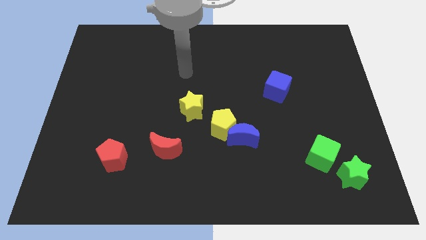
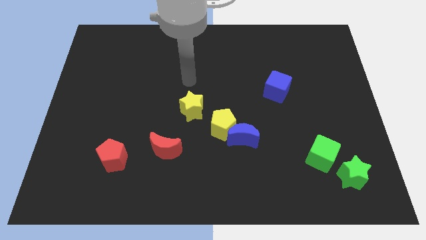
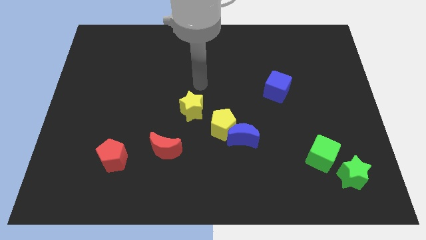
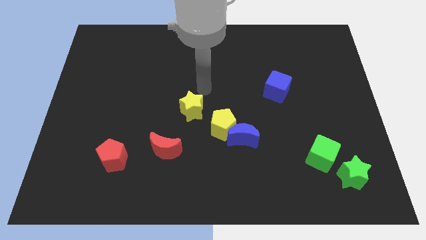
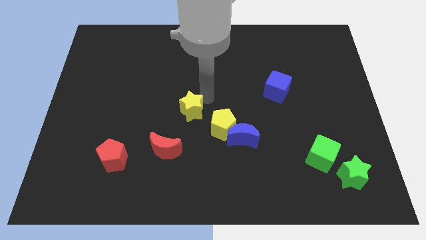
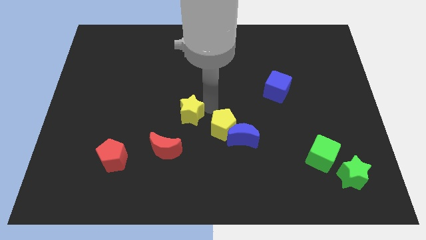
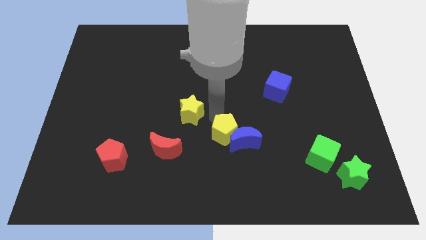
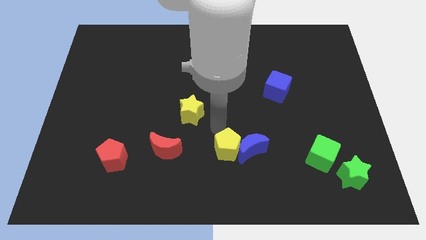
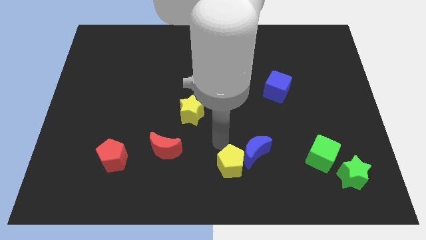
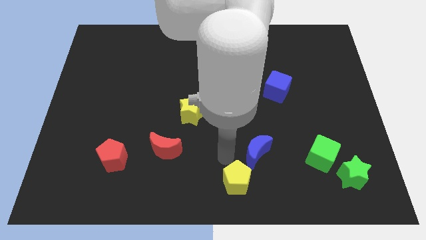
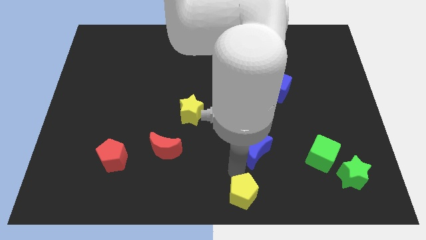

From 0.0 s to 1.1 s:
separate the blue moon from the yellow pentagon

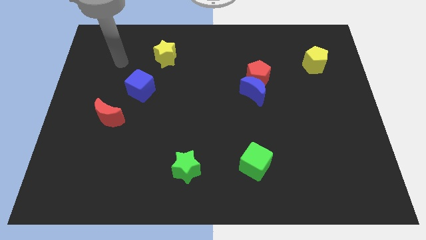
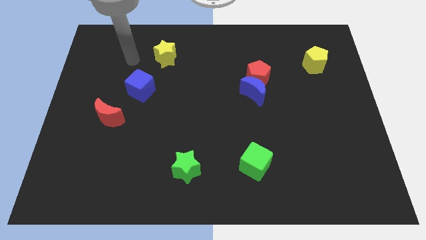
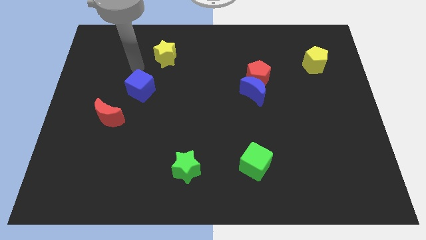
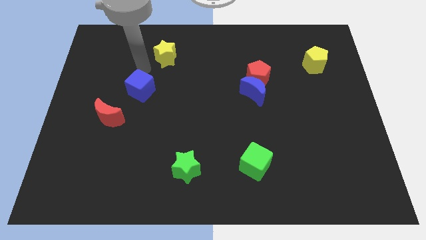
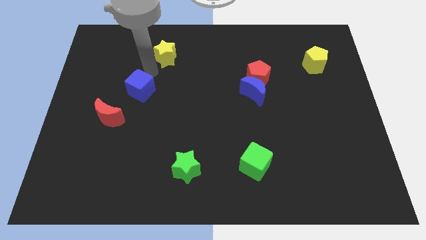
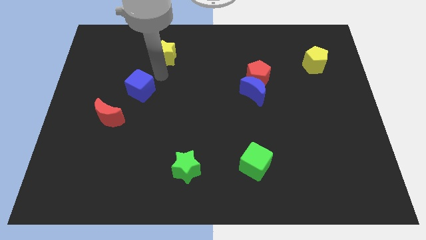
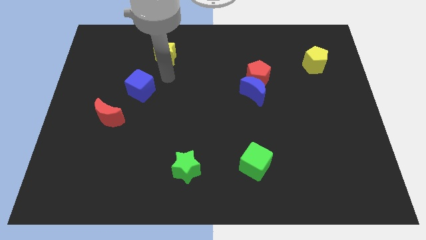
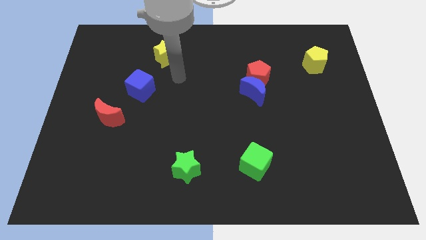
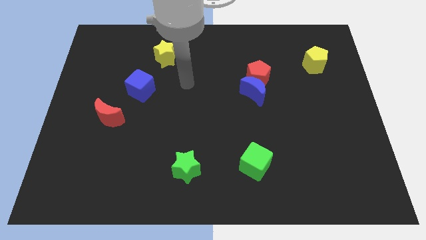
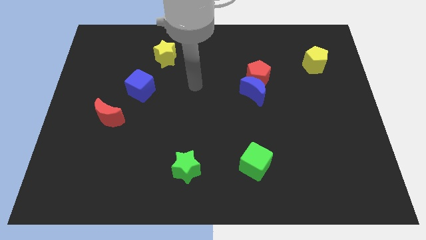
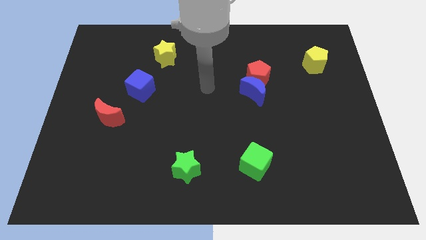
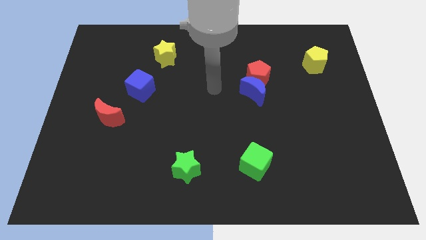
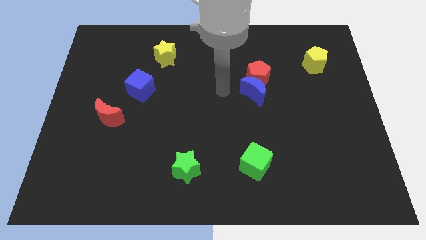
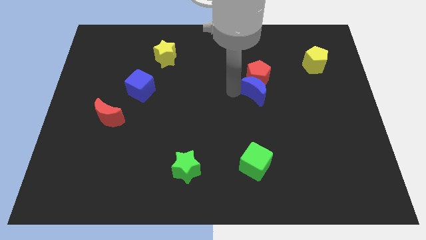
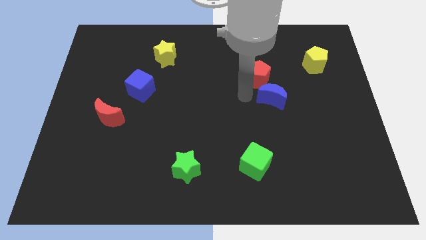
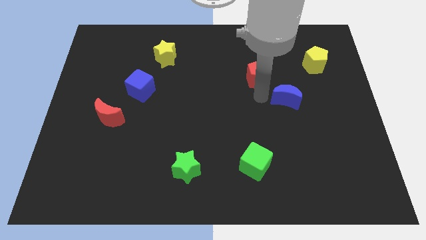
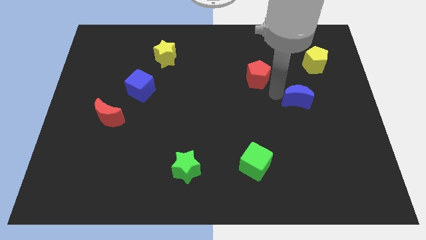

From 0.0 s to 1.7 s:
separate the red pentagon from the blue moon

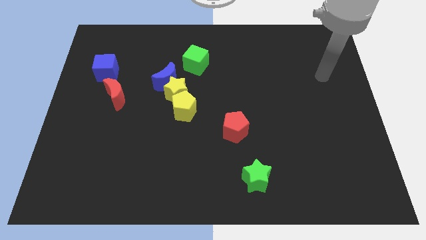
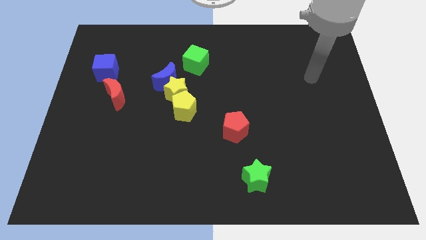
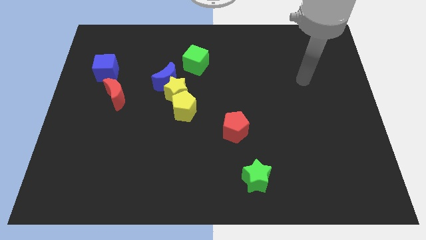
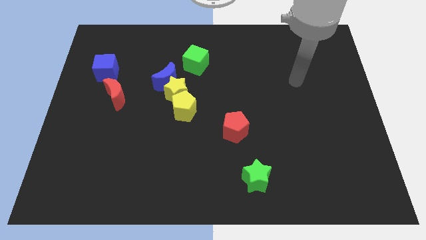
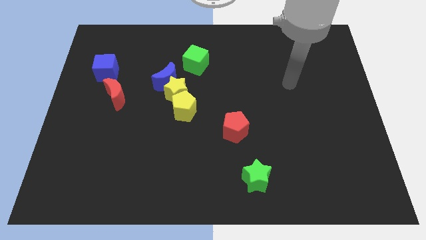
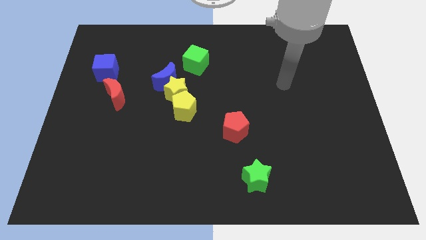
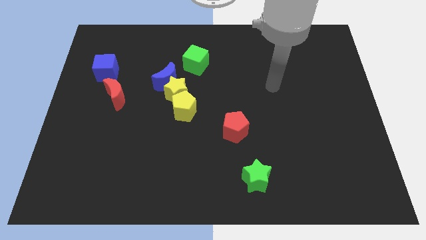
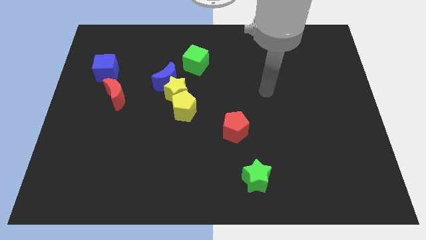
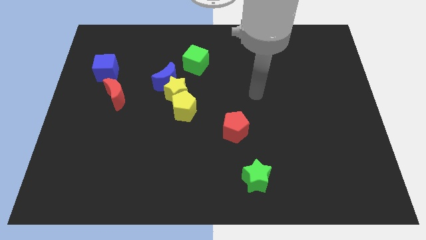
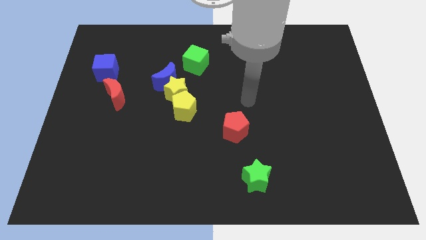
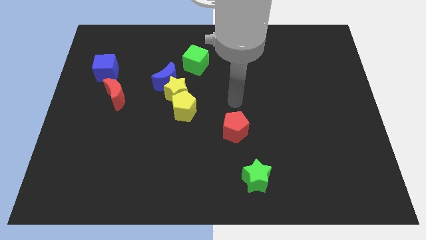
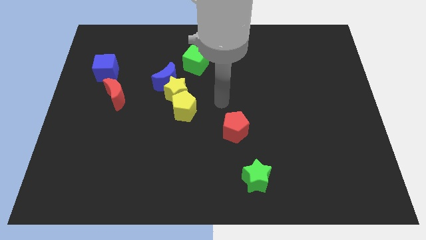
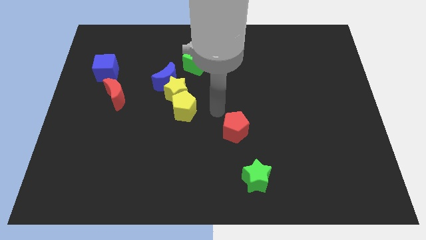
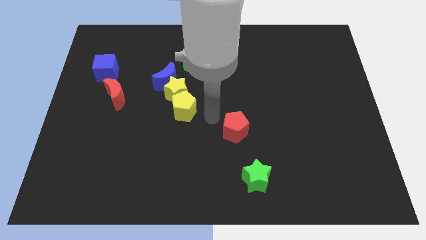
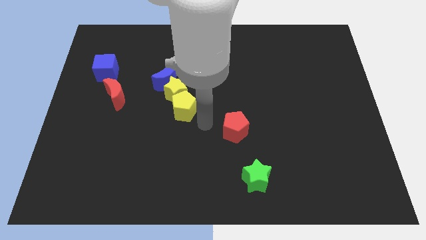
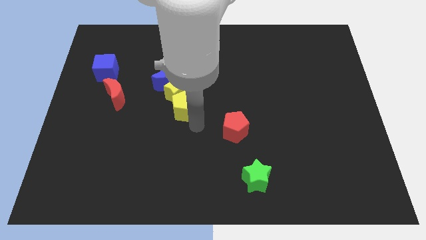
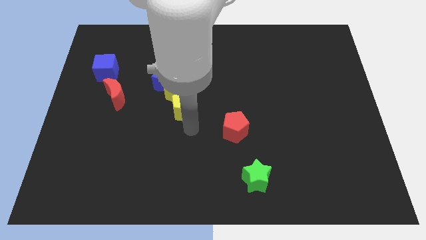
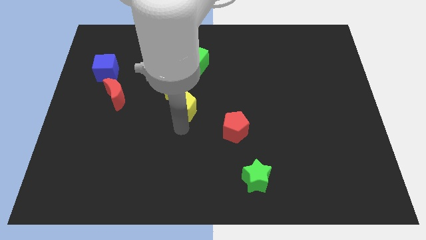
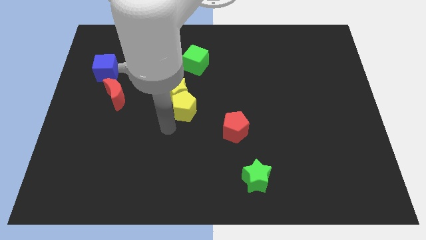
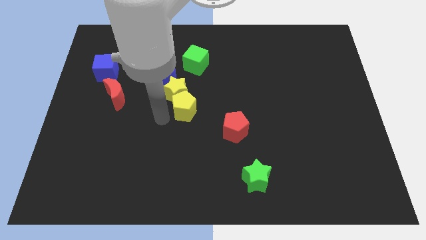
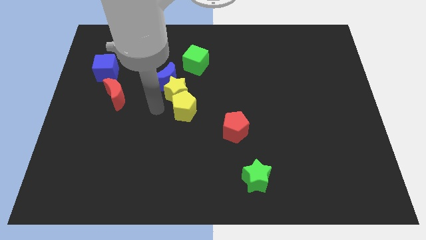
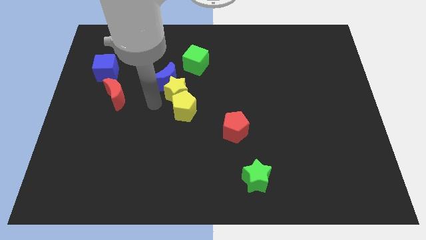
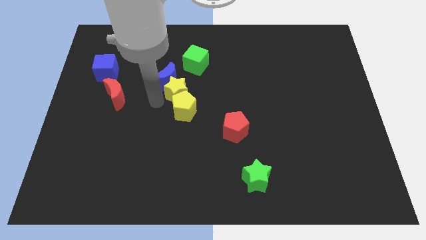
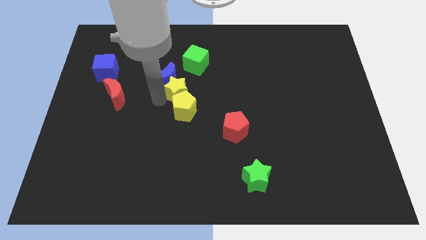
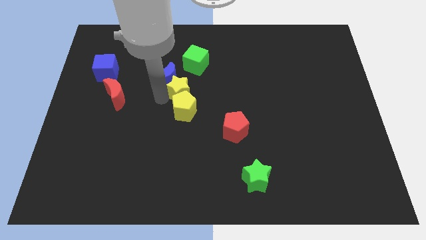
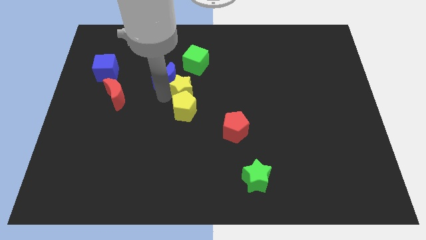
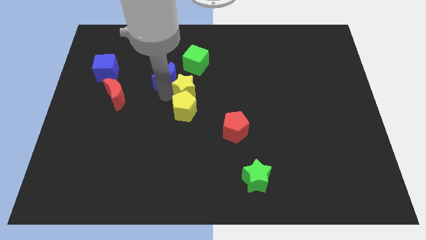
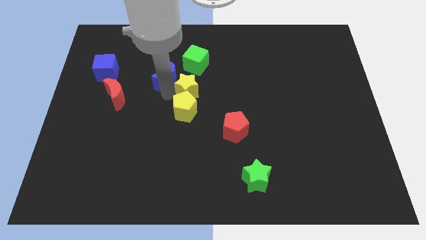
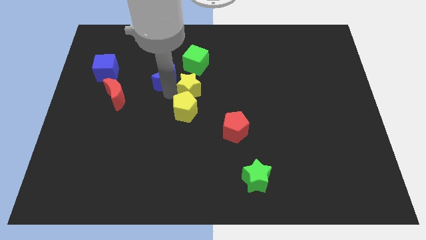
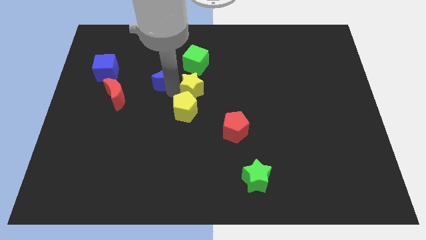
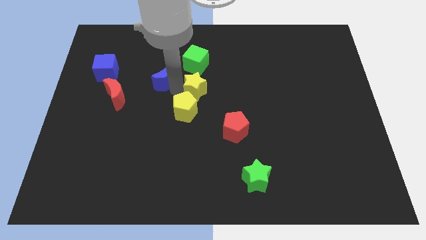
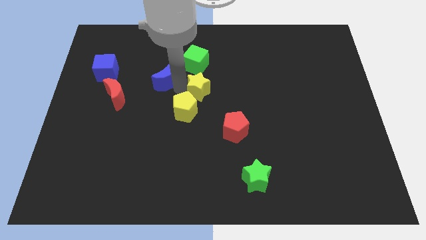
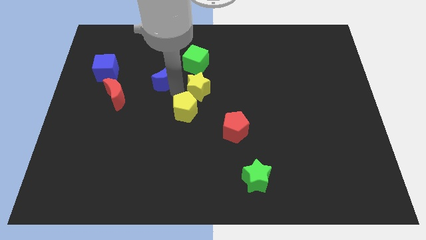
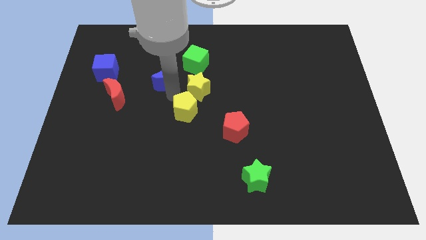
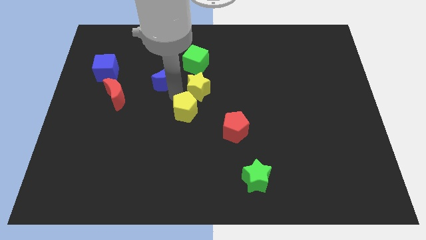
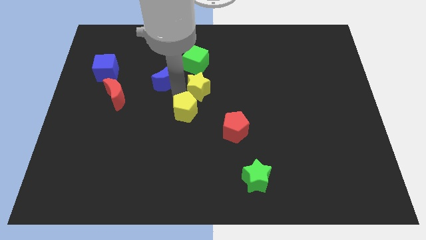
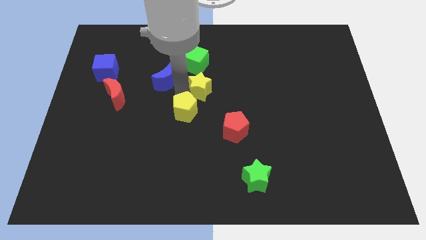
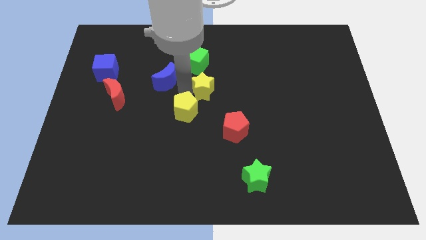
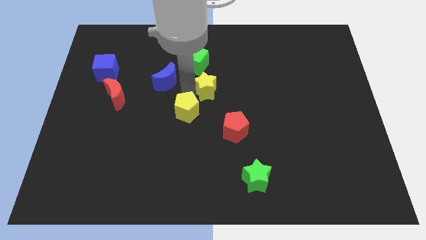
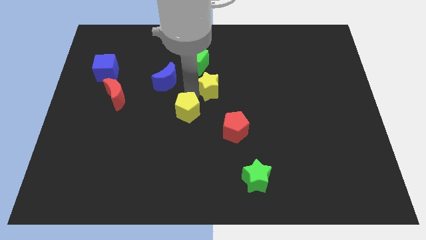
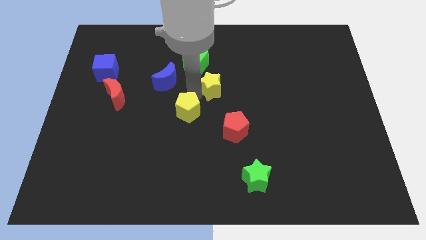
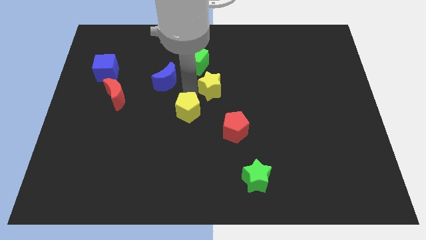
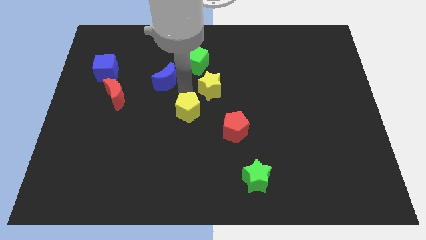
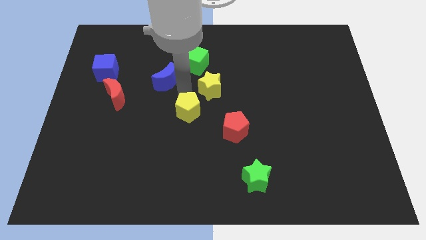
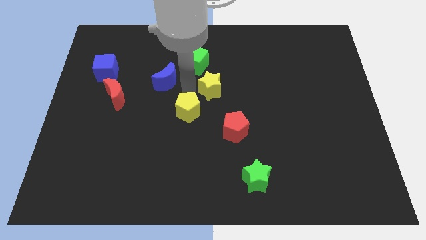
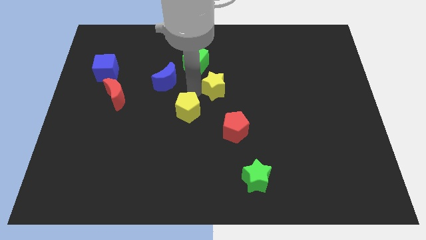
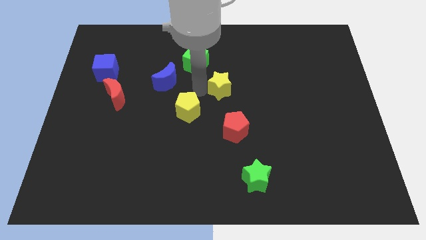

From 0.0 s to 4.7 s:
pull the yellow star apart from the blue moon and yellow pentagon

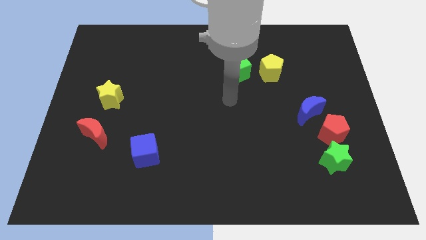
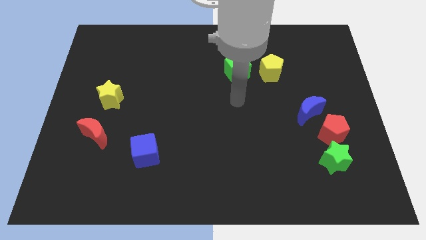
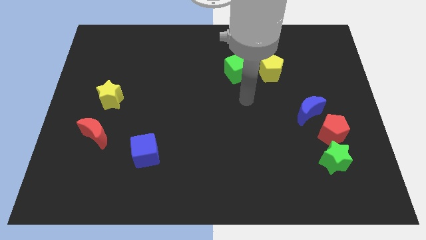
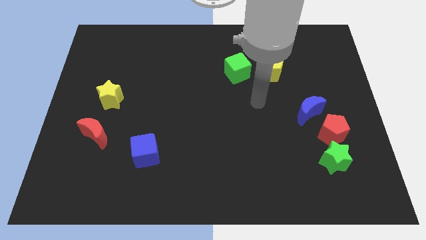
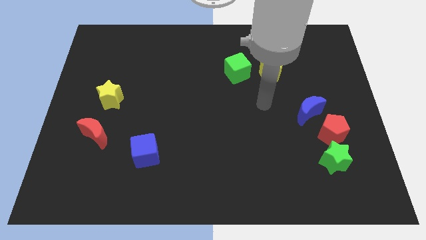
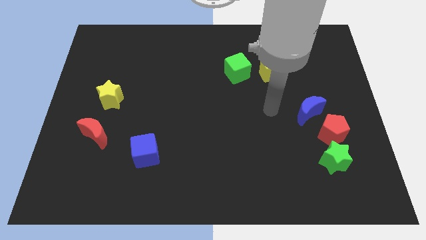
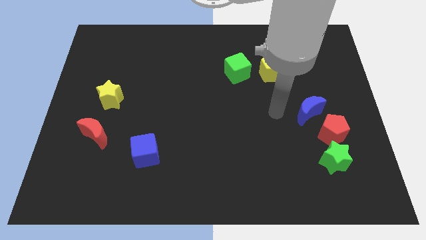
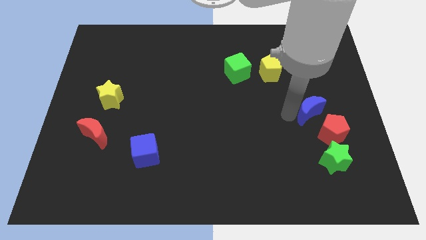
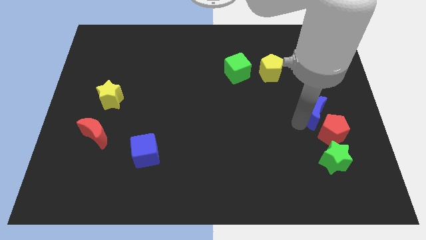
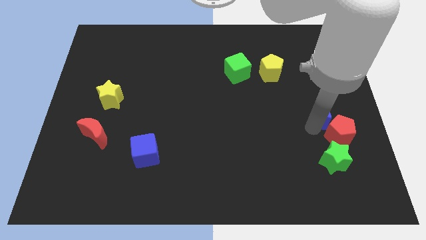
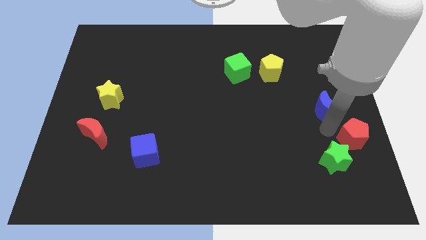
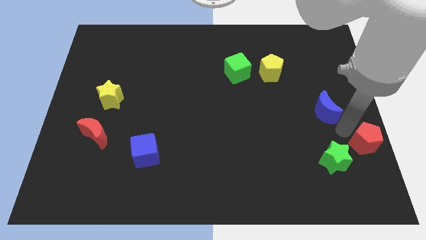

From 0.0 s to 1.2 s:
pull the blue moon apart from the red pentagon

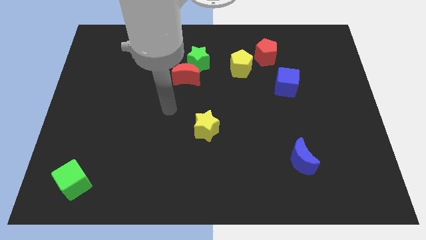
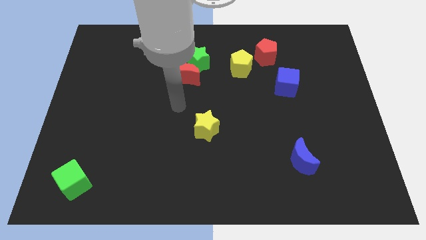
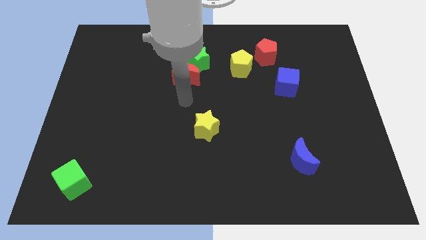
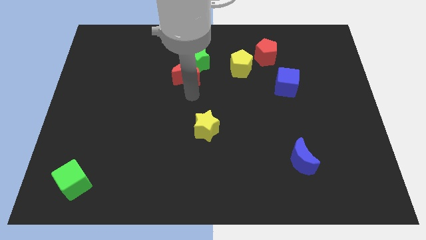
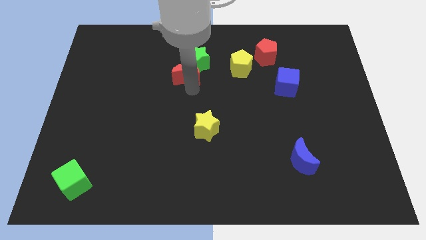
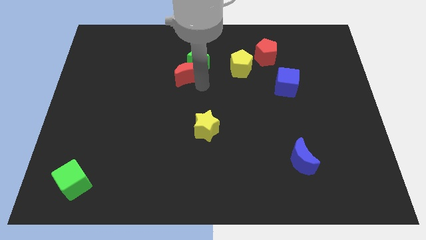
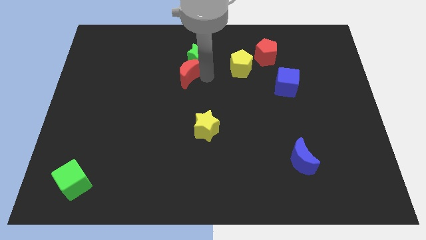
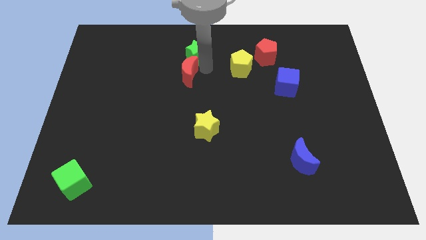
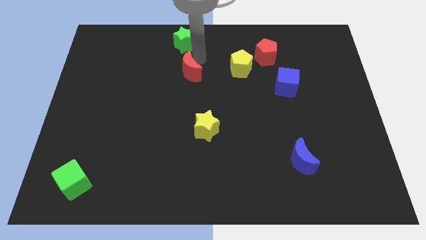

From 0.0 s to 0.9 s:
pull the red moon apart from the green star
